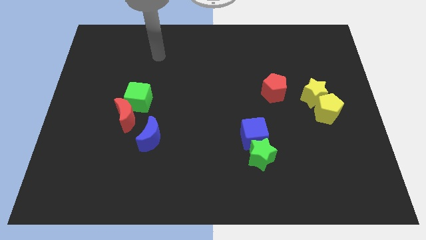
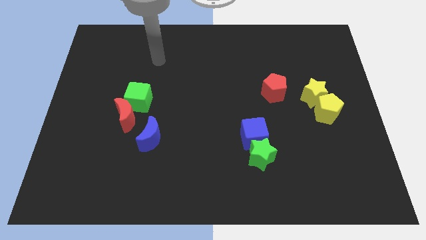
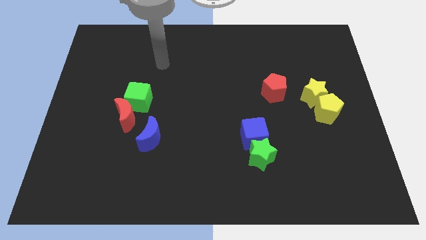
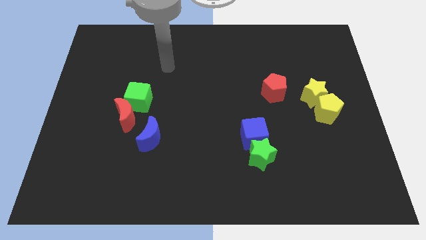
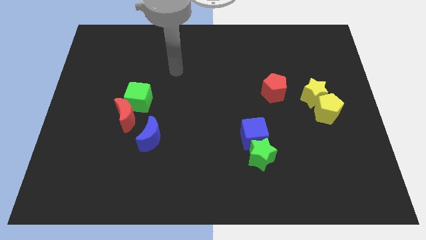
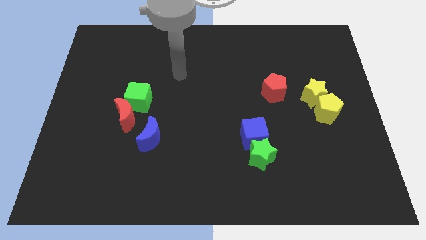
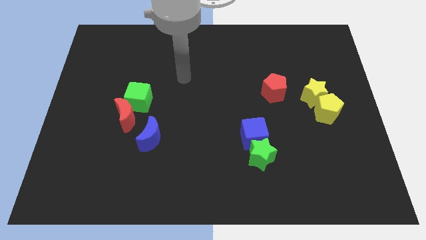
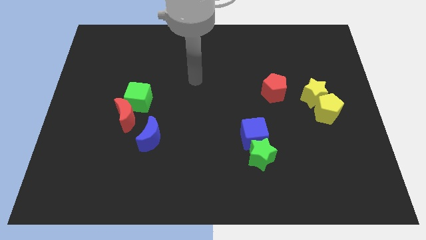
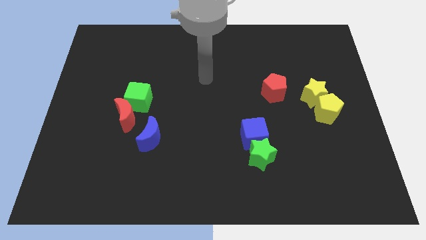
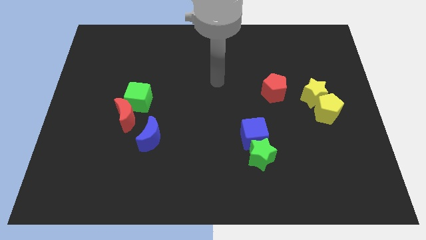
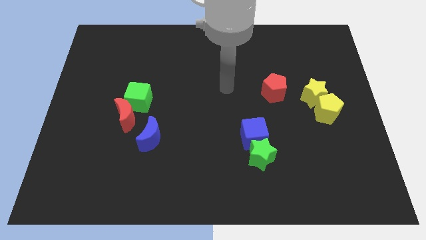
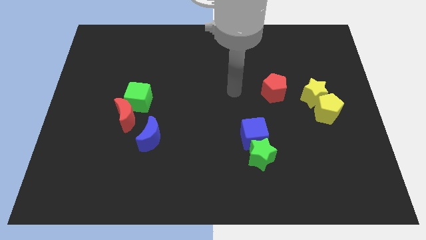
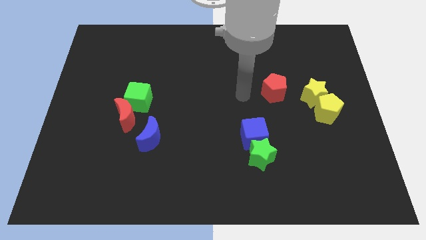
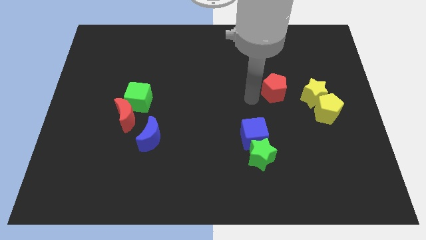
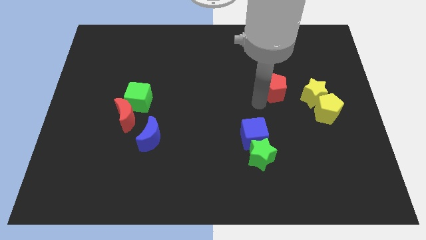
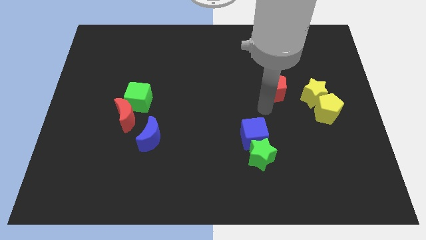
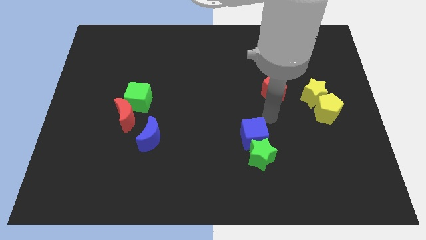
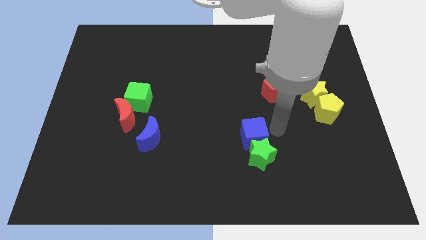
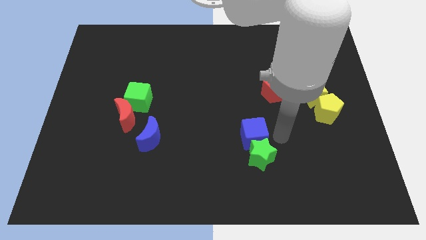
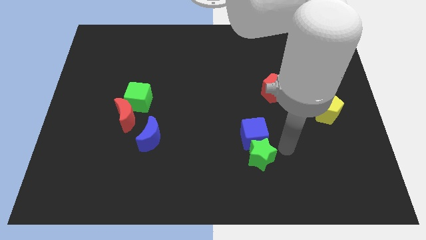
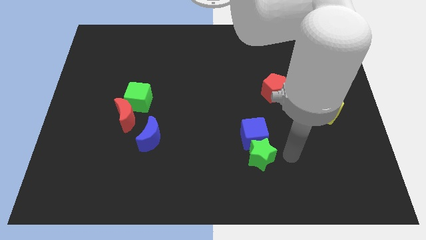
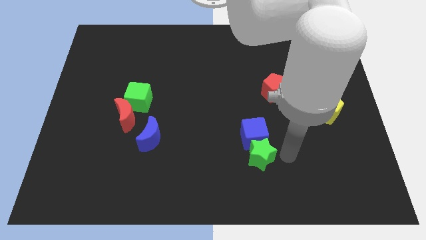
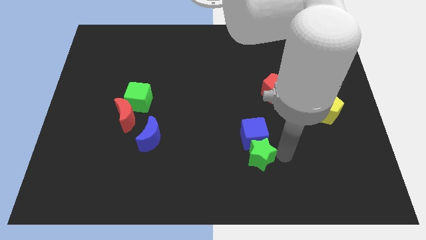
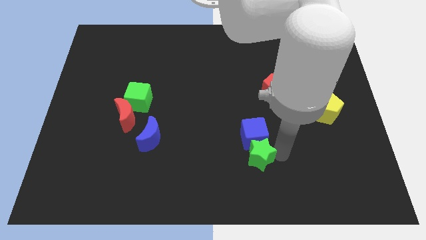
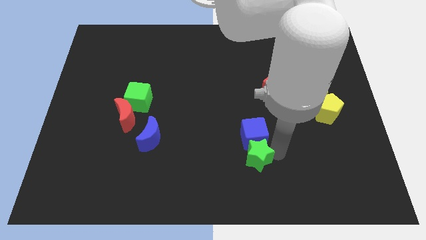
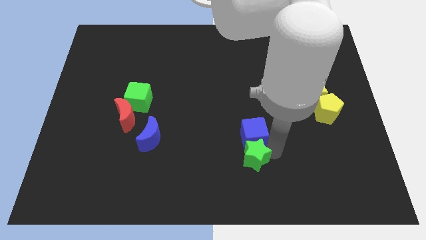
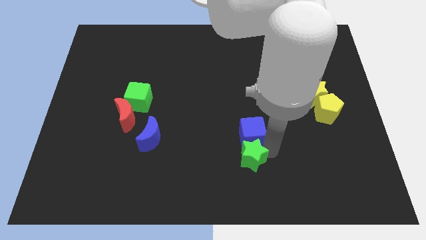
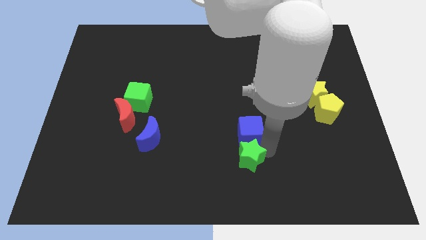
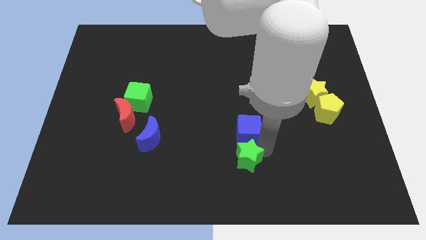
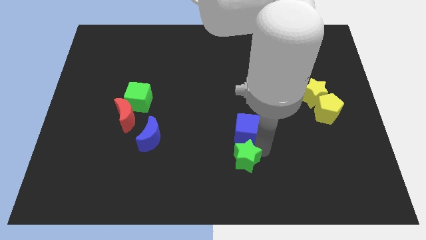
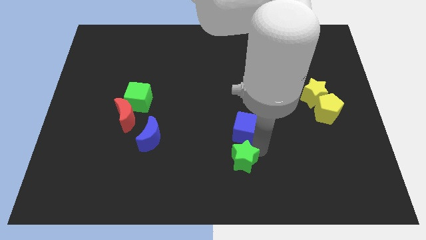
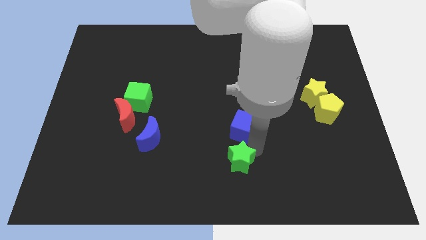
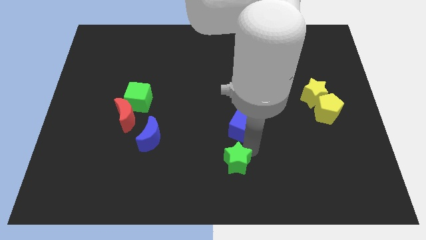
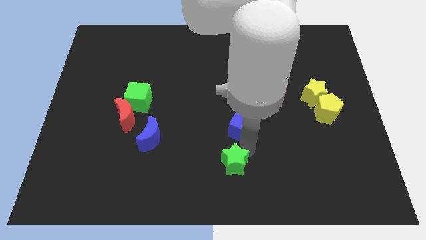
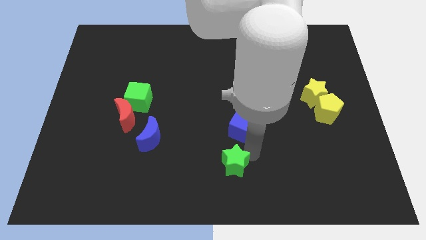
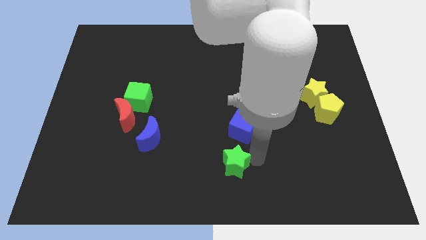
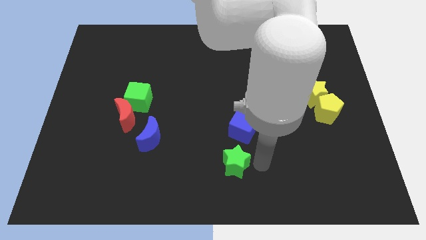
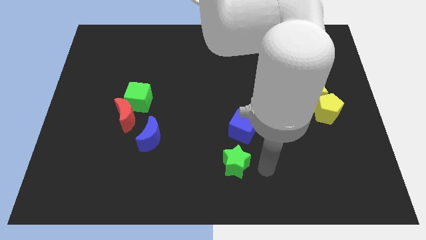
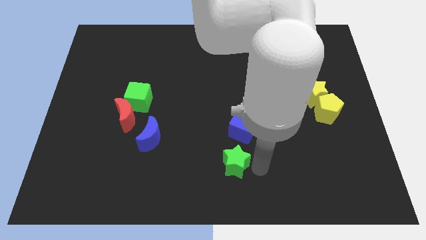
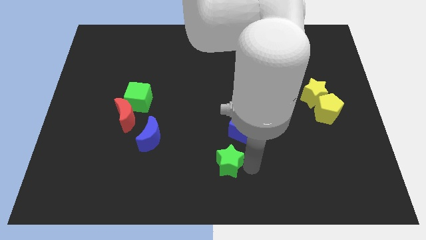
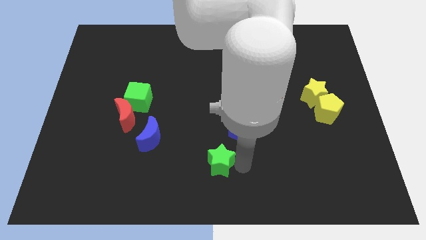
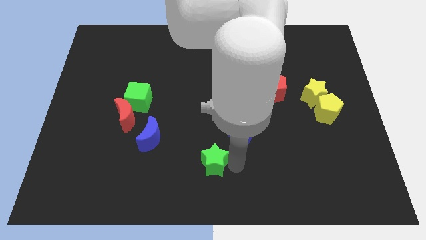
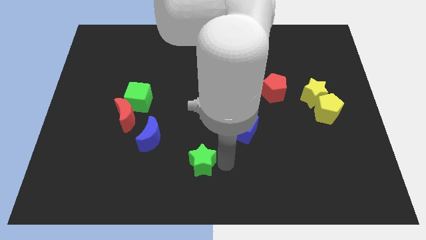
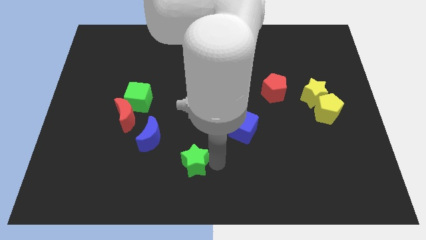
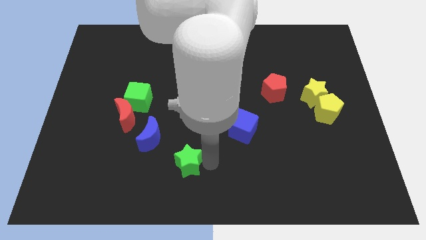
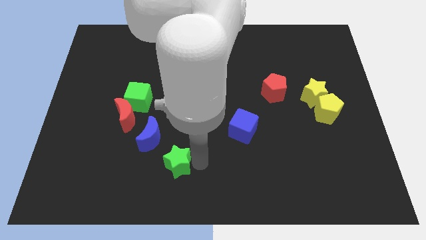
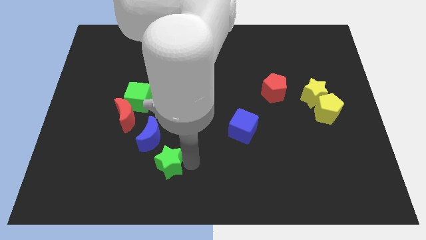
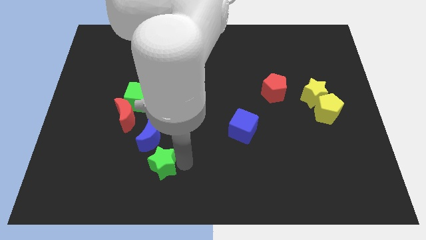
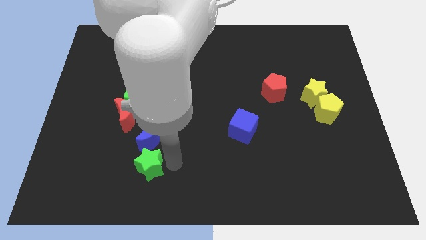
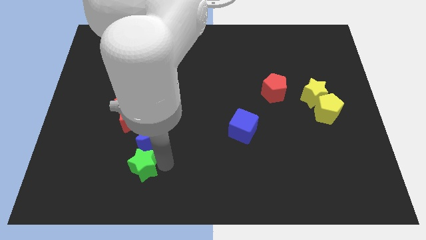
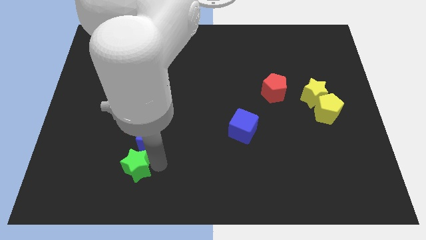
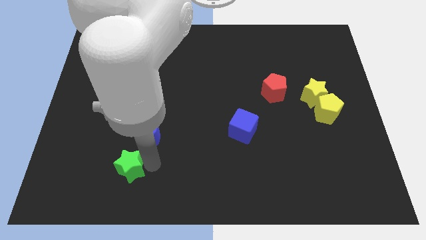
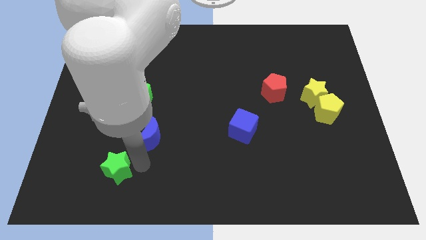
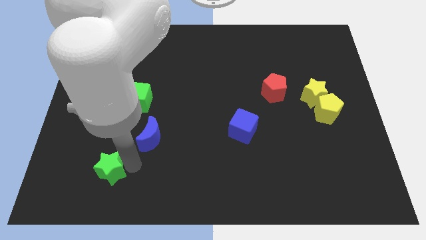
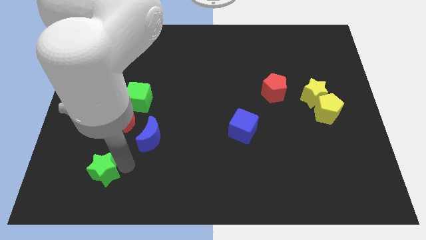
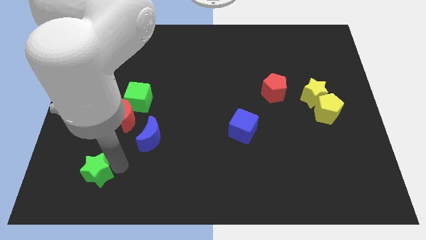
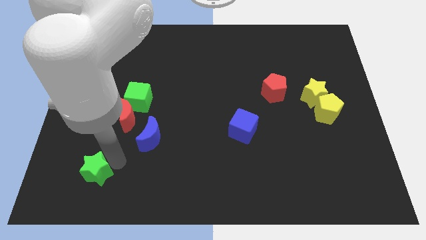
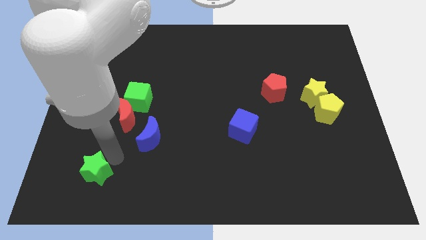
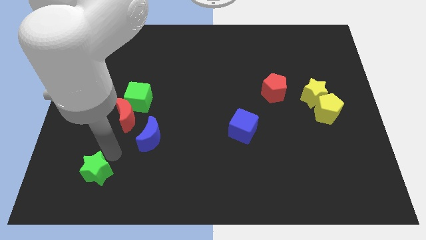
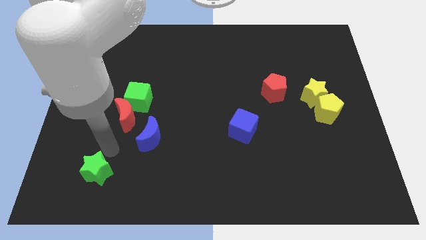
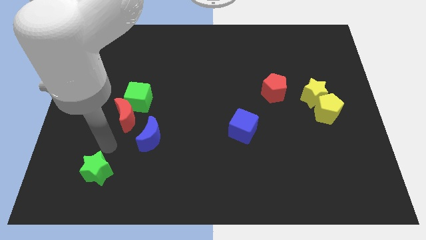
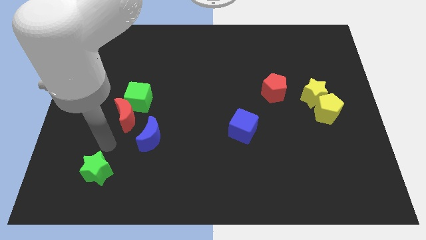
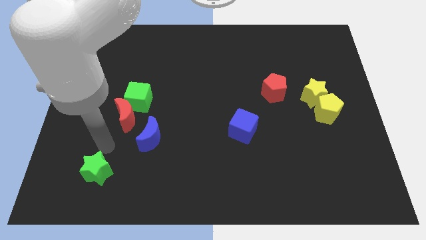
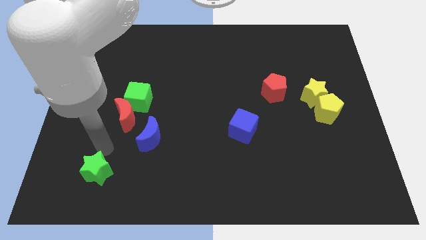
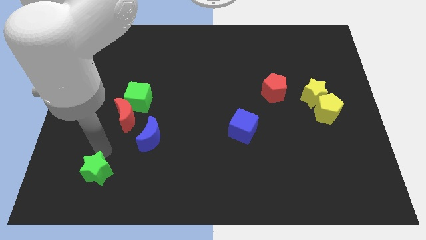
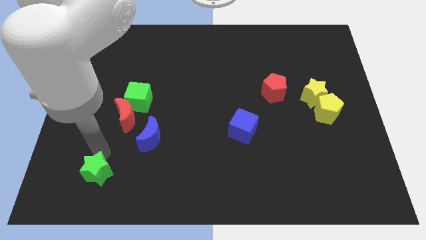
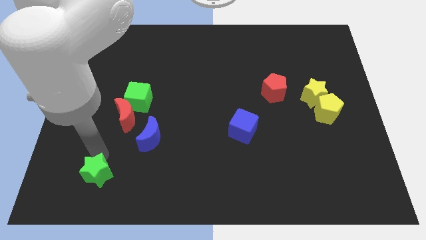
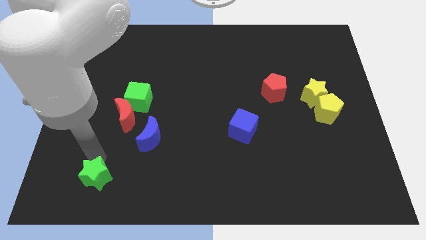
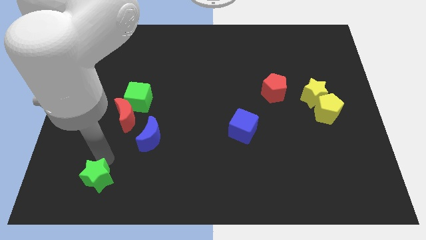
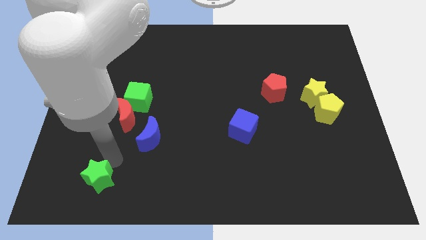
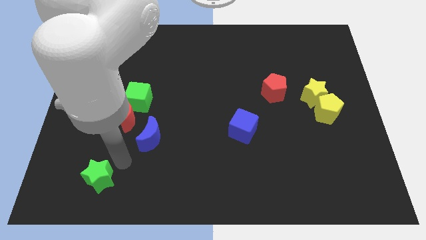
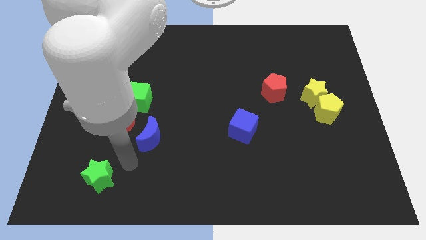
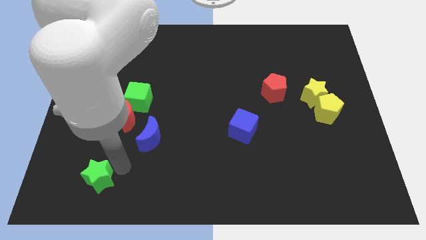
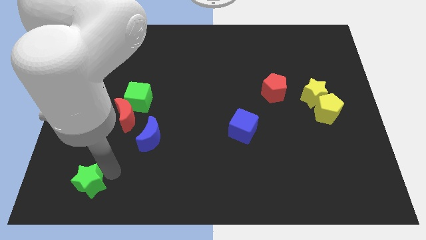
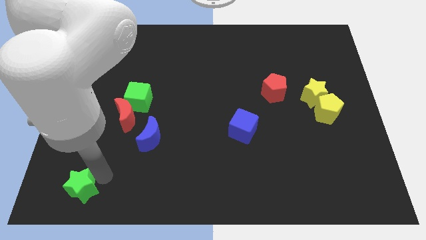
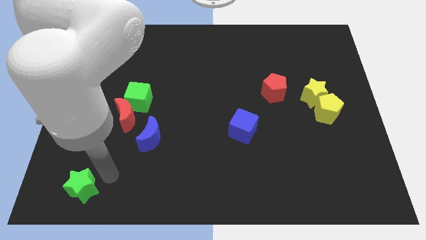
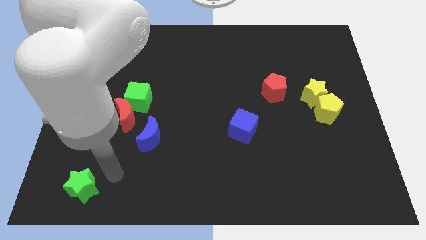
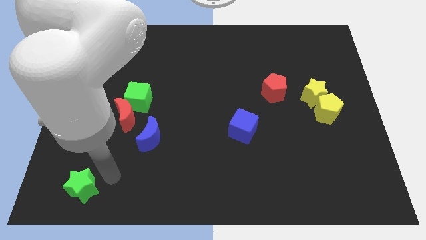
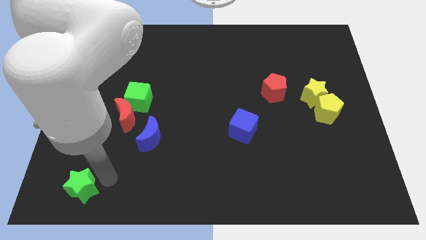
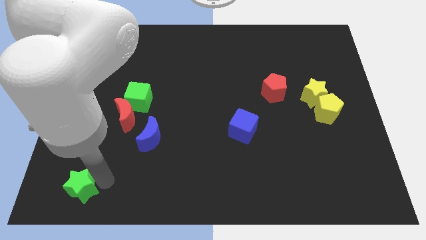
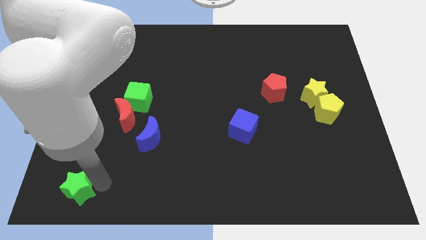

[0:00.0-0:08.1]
put the green star to the bottom left corner
